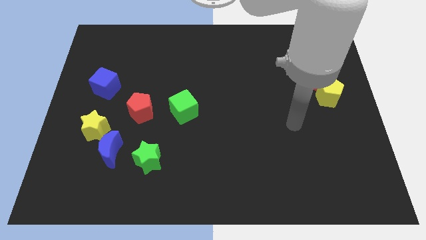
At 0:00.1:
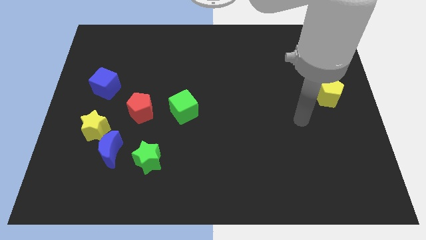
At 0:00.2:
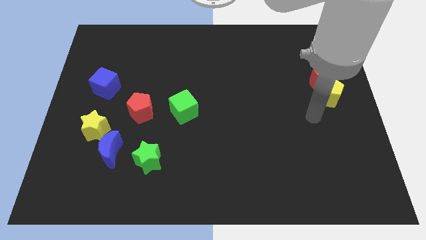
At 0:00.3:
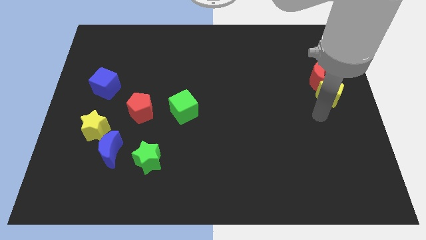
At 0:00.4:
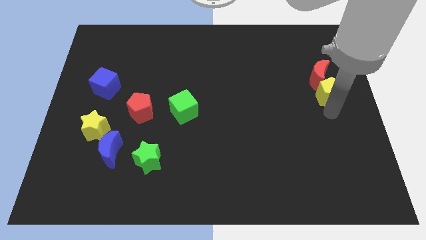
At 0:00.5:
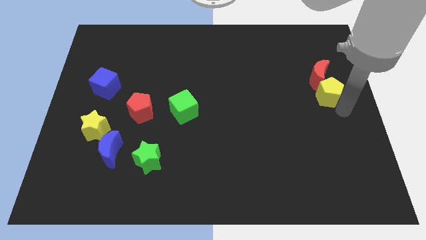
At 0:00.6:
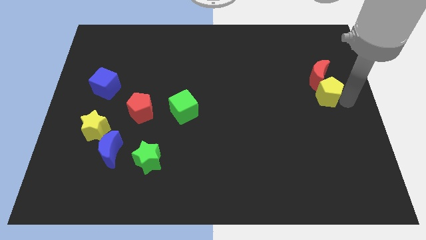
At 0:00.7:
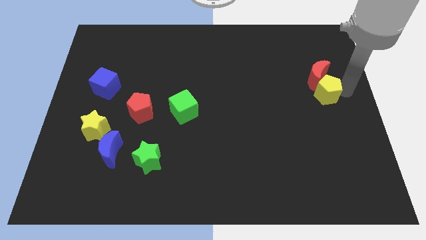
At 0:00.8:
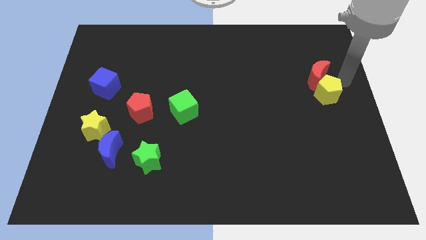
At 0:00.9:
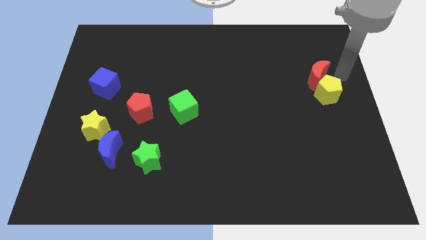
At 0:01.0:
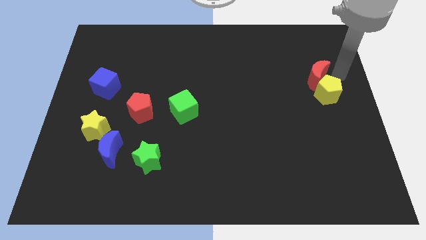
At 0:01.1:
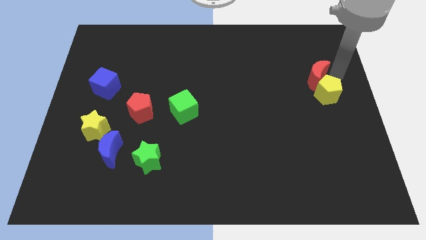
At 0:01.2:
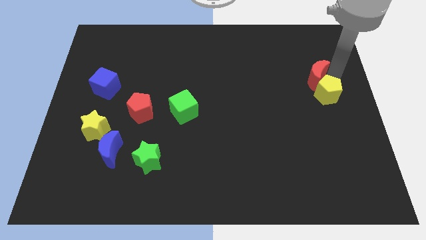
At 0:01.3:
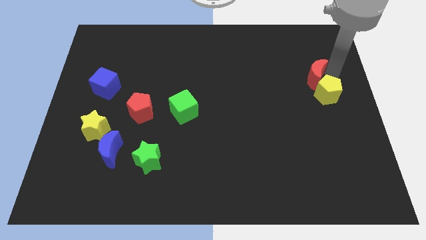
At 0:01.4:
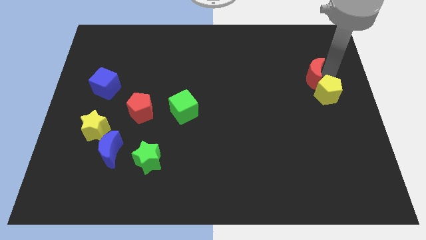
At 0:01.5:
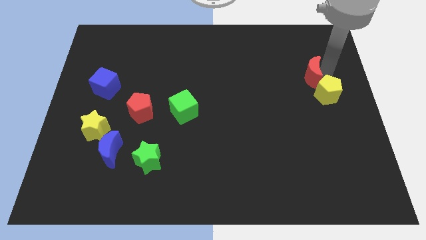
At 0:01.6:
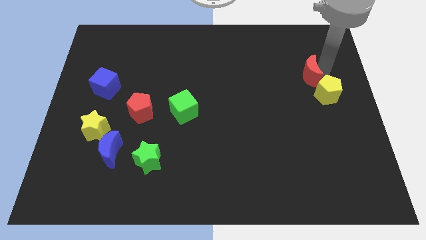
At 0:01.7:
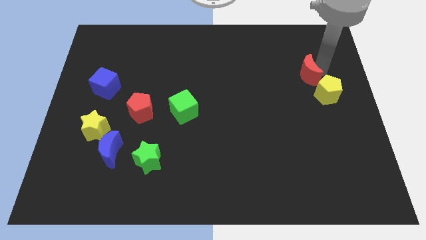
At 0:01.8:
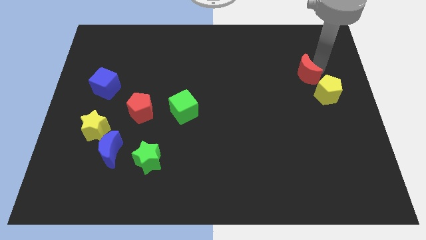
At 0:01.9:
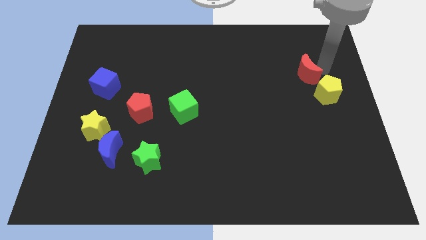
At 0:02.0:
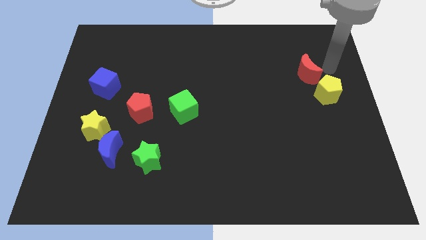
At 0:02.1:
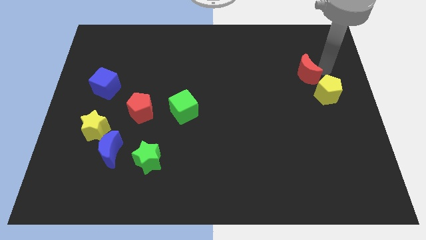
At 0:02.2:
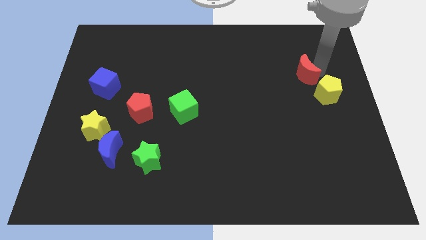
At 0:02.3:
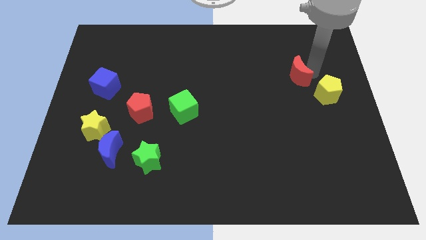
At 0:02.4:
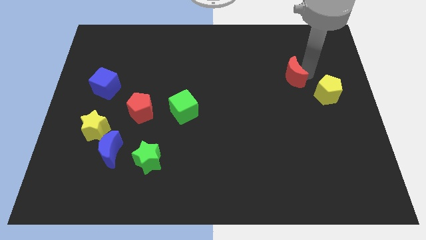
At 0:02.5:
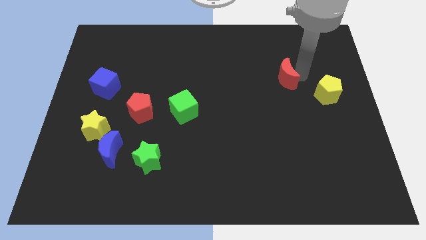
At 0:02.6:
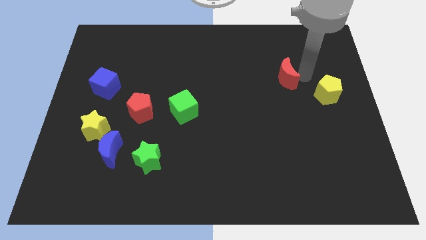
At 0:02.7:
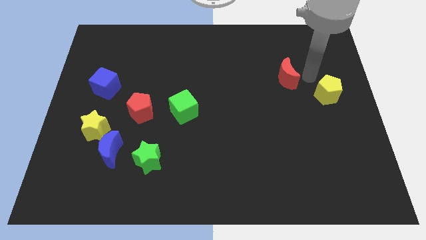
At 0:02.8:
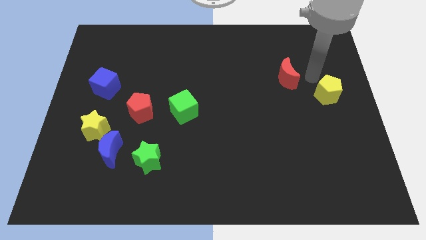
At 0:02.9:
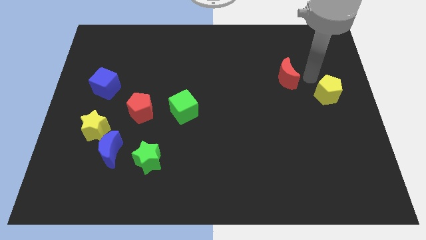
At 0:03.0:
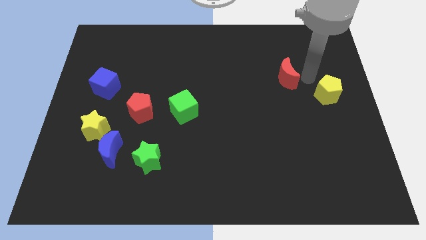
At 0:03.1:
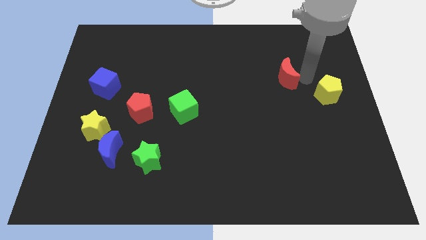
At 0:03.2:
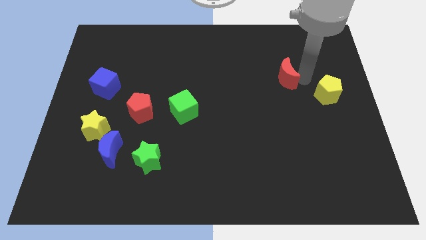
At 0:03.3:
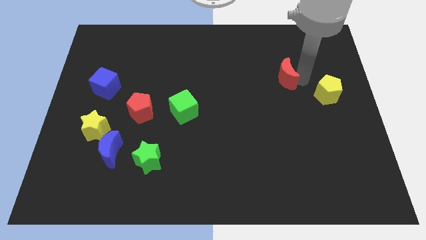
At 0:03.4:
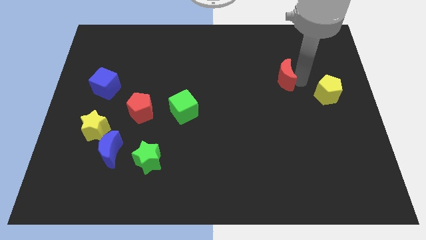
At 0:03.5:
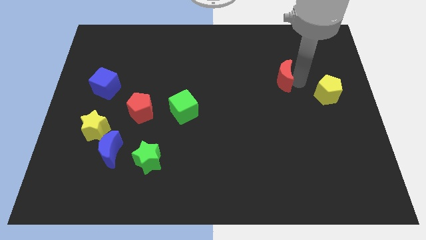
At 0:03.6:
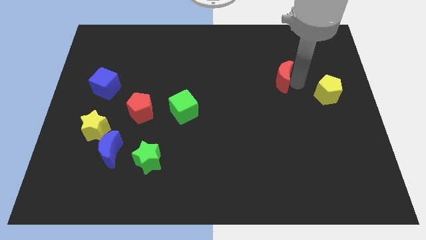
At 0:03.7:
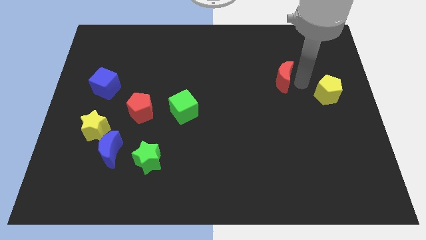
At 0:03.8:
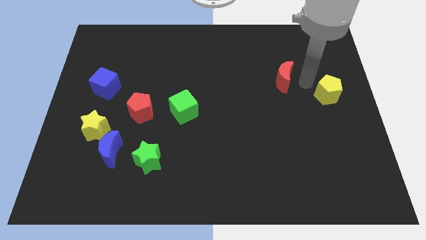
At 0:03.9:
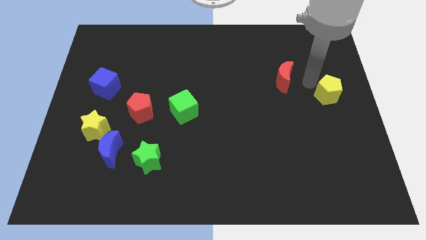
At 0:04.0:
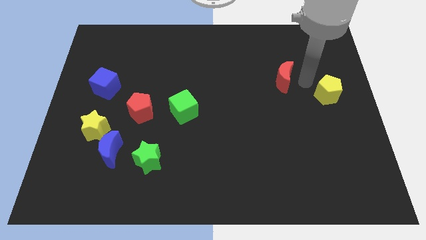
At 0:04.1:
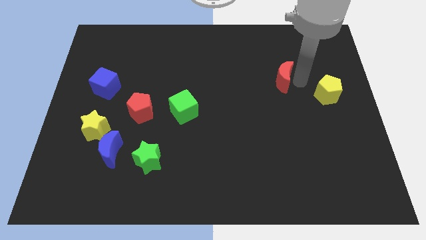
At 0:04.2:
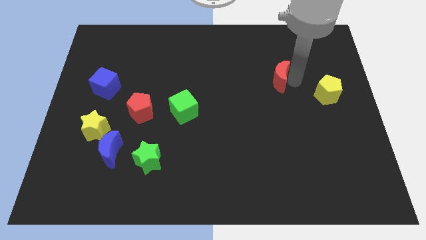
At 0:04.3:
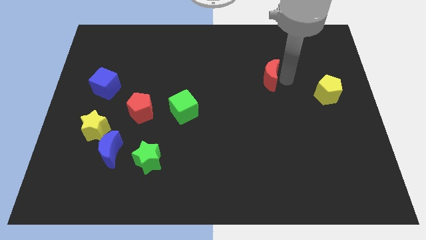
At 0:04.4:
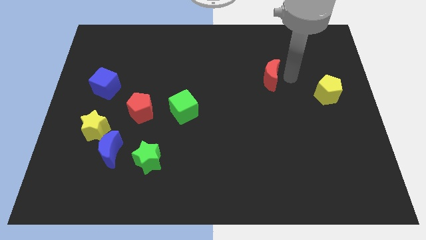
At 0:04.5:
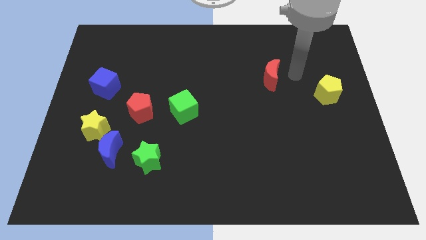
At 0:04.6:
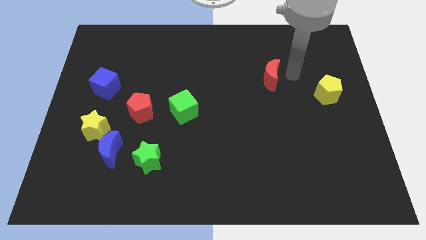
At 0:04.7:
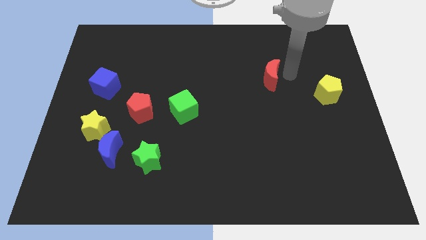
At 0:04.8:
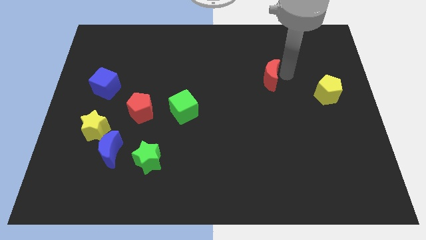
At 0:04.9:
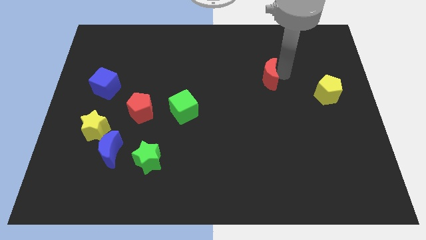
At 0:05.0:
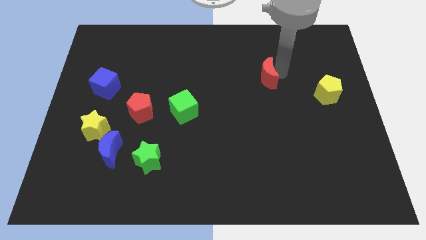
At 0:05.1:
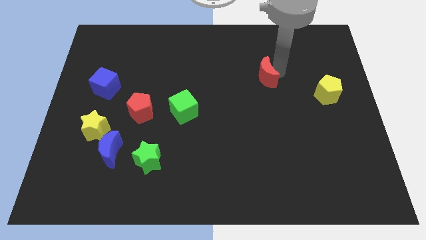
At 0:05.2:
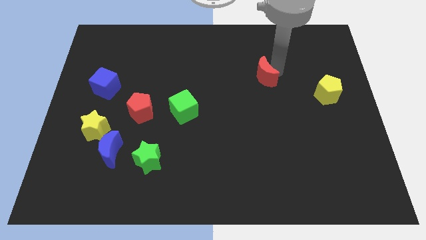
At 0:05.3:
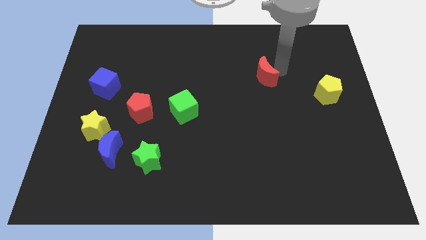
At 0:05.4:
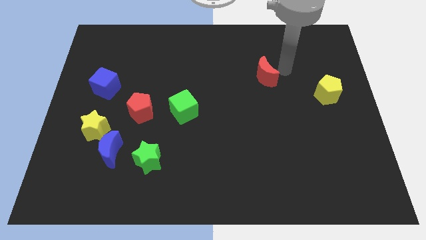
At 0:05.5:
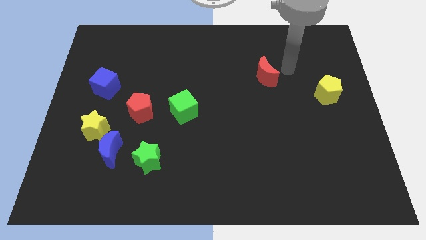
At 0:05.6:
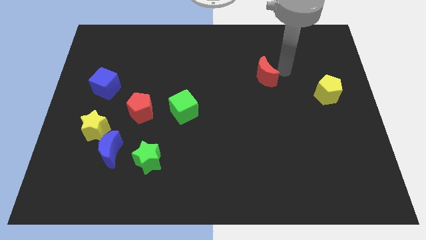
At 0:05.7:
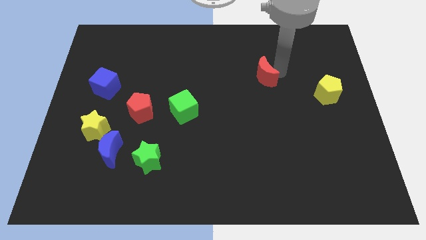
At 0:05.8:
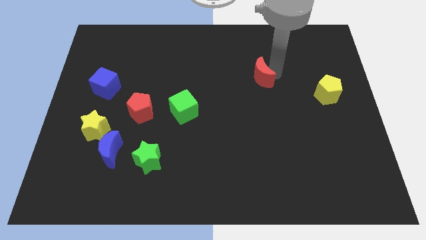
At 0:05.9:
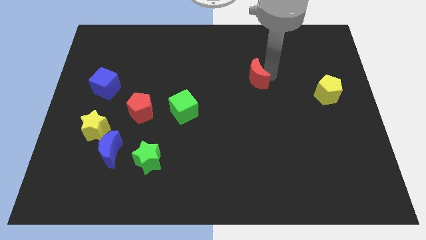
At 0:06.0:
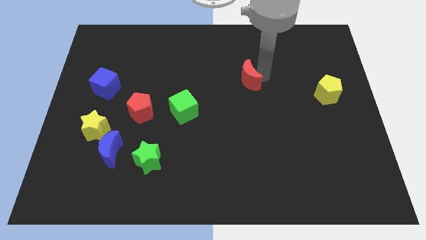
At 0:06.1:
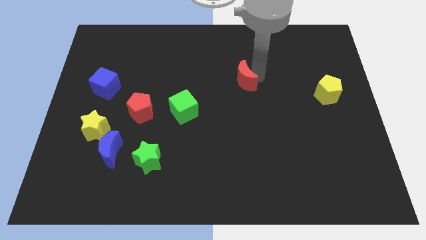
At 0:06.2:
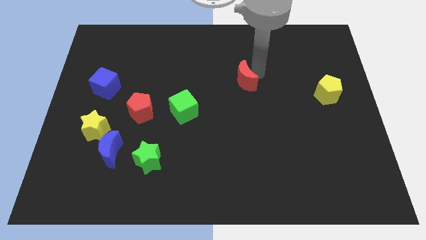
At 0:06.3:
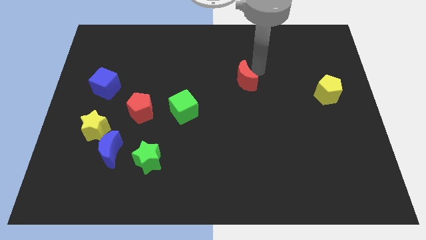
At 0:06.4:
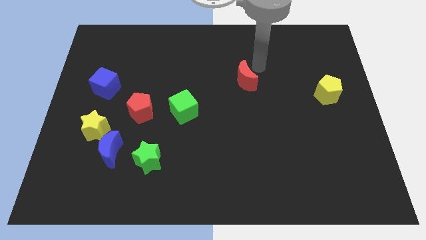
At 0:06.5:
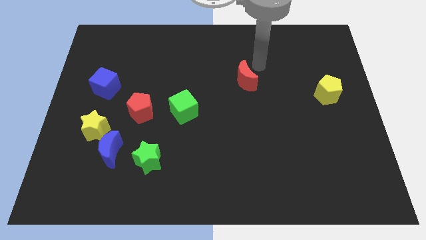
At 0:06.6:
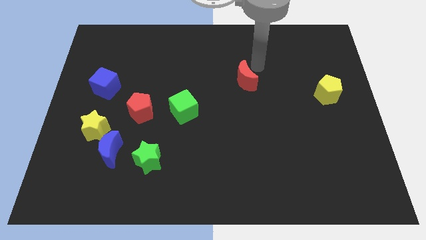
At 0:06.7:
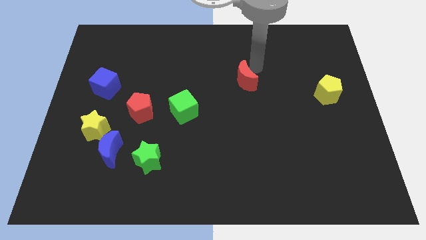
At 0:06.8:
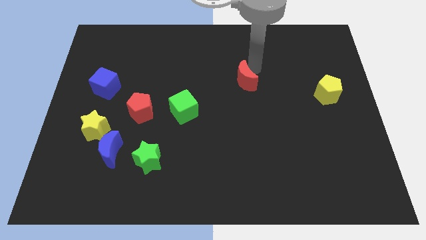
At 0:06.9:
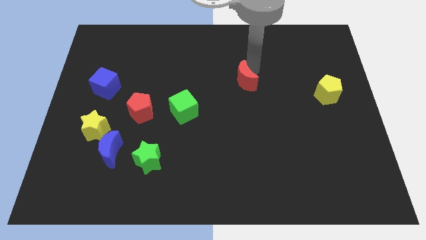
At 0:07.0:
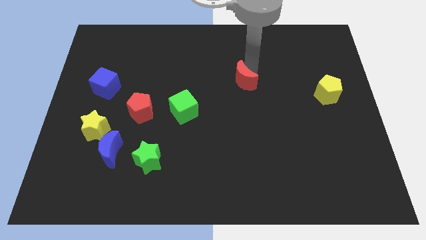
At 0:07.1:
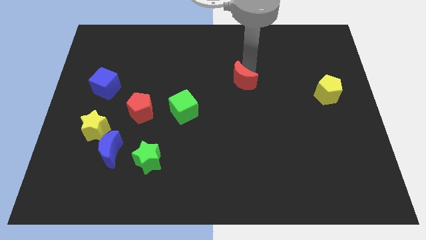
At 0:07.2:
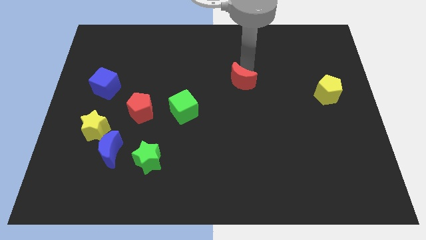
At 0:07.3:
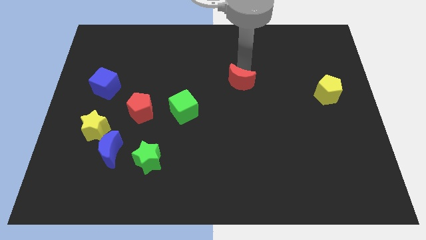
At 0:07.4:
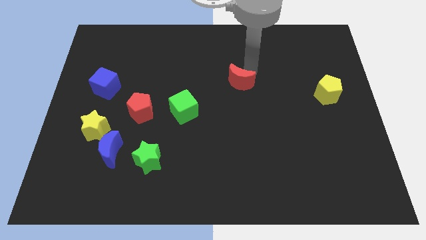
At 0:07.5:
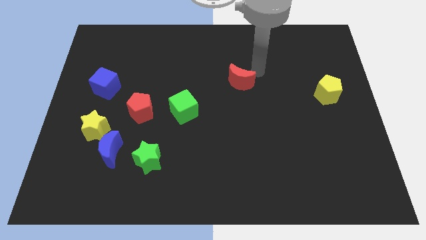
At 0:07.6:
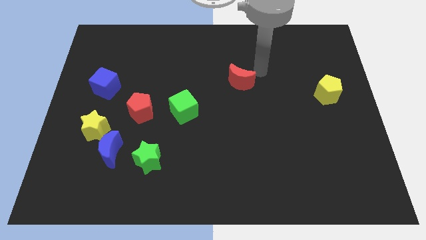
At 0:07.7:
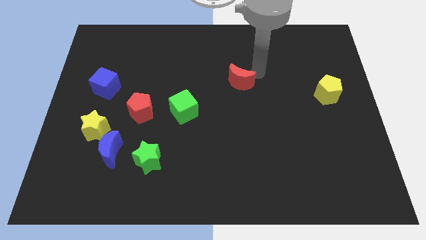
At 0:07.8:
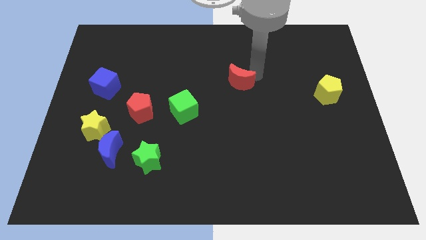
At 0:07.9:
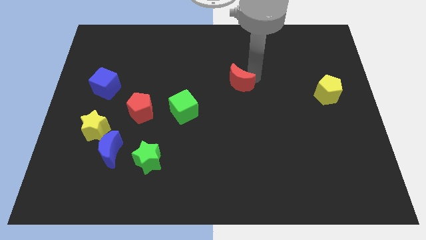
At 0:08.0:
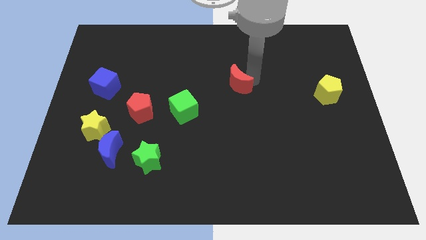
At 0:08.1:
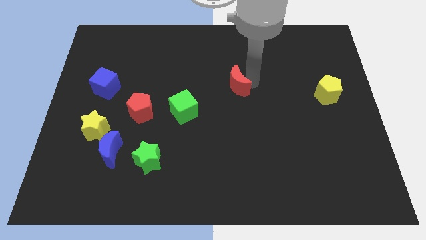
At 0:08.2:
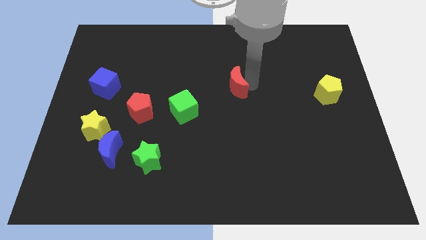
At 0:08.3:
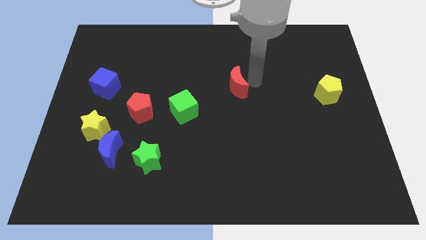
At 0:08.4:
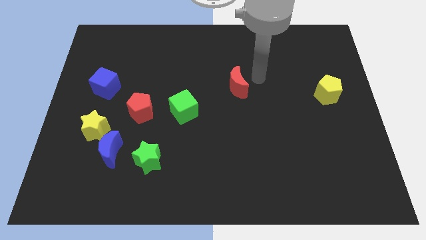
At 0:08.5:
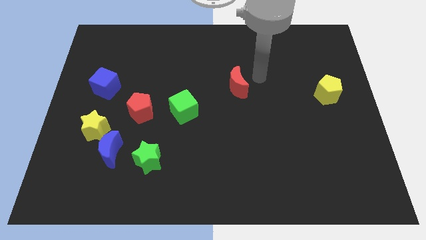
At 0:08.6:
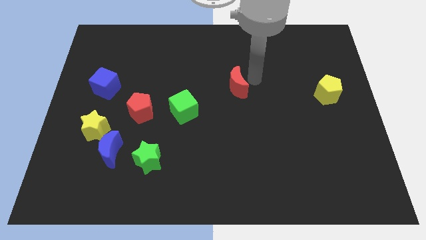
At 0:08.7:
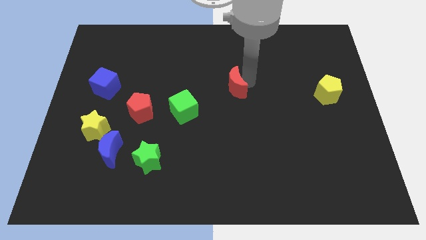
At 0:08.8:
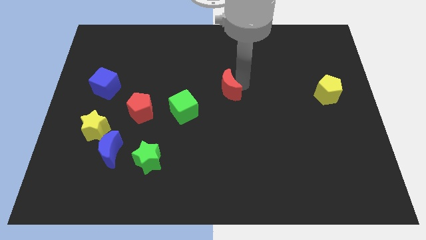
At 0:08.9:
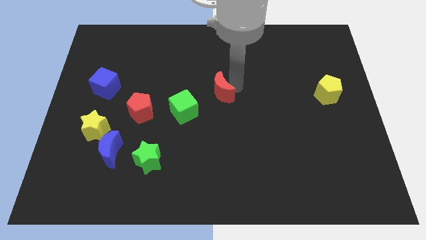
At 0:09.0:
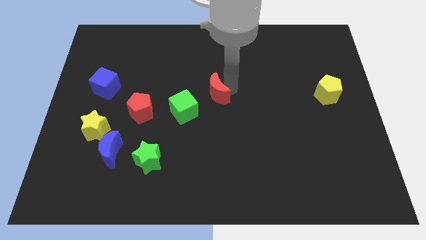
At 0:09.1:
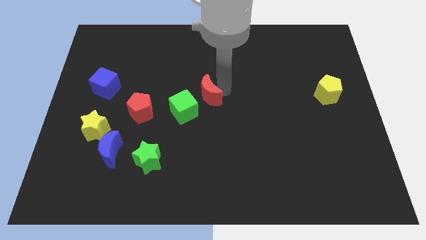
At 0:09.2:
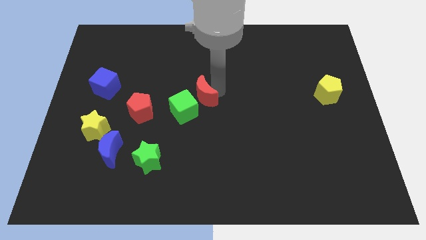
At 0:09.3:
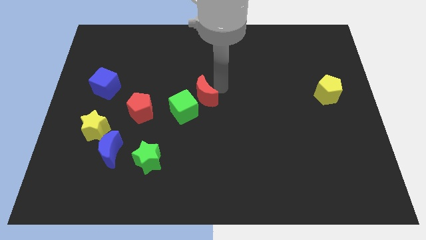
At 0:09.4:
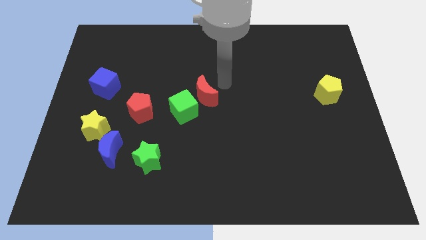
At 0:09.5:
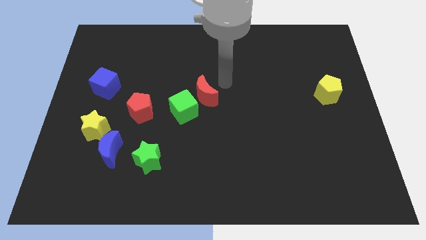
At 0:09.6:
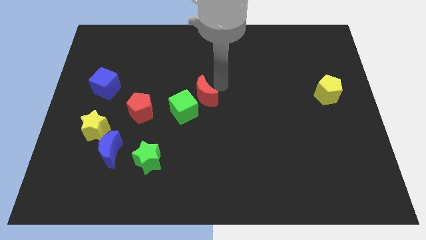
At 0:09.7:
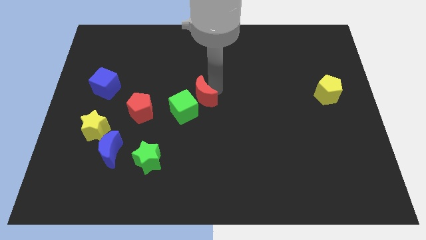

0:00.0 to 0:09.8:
move the red moon close to the green cube
